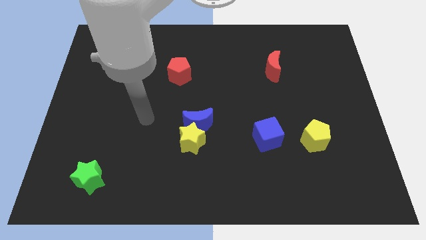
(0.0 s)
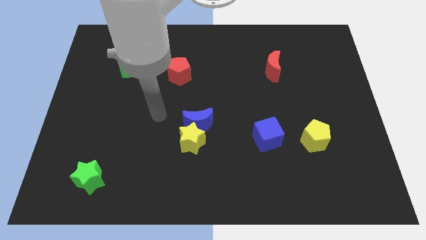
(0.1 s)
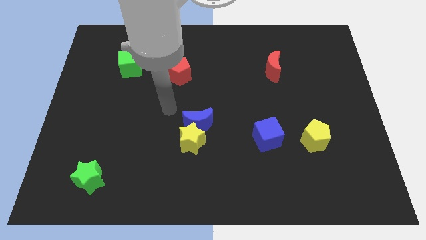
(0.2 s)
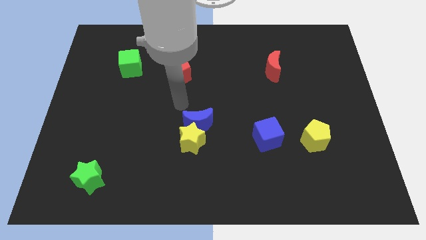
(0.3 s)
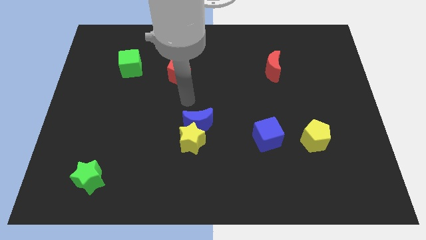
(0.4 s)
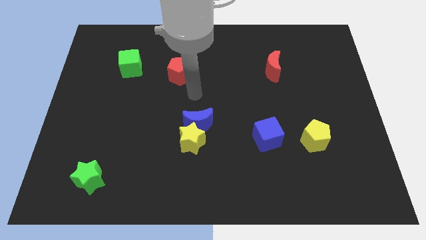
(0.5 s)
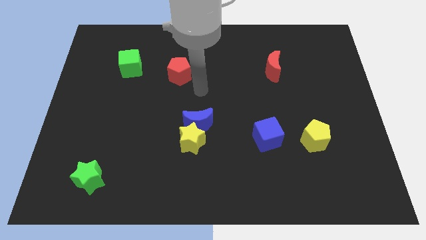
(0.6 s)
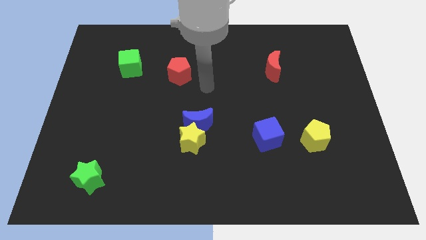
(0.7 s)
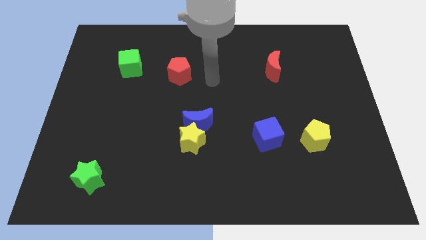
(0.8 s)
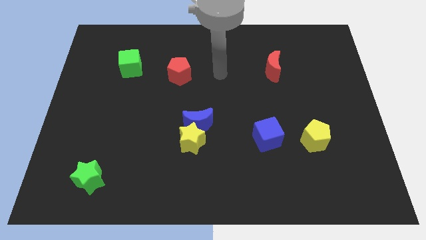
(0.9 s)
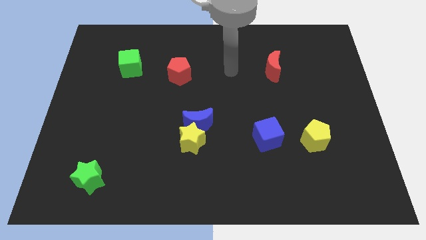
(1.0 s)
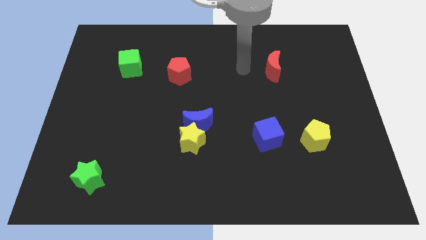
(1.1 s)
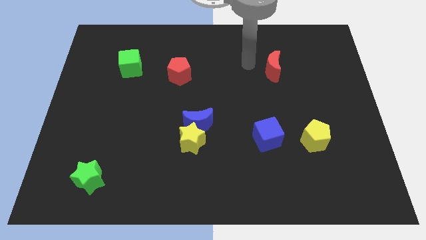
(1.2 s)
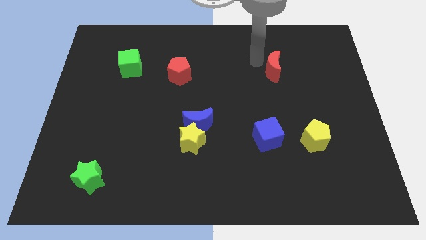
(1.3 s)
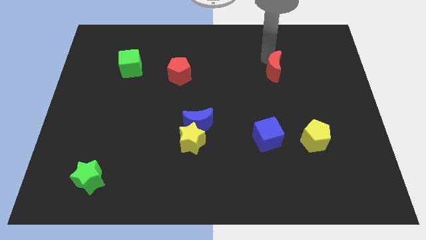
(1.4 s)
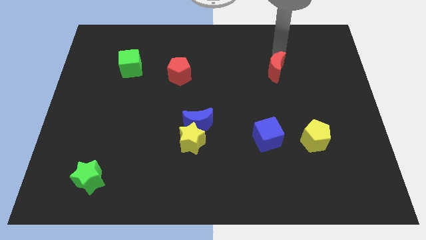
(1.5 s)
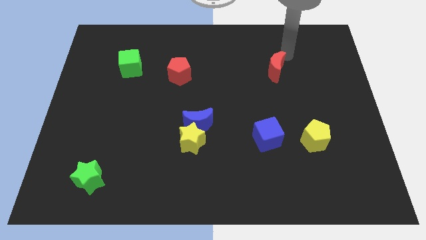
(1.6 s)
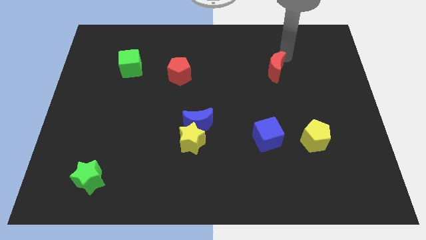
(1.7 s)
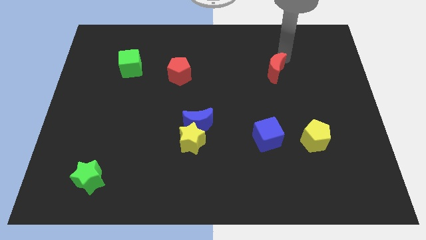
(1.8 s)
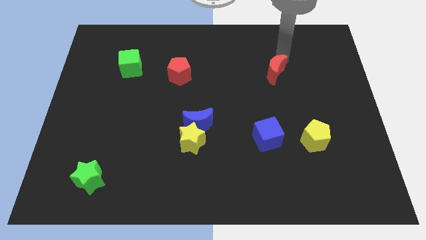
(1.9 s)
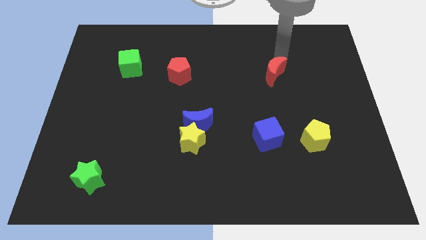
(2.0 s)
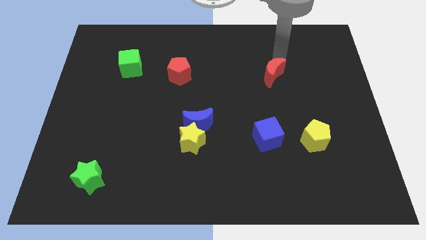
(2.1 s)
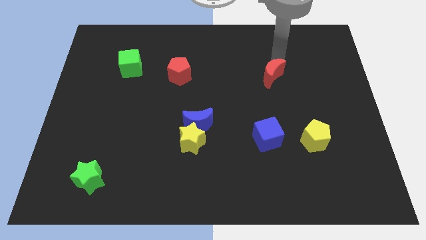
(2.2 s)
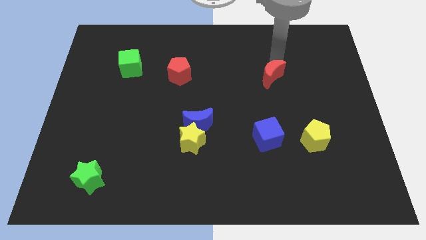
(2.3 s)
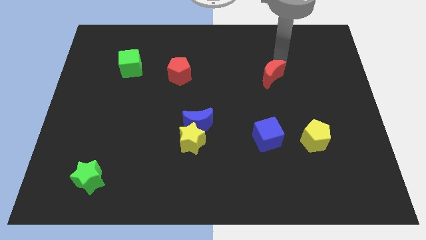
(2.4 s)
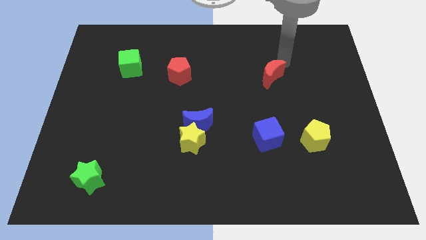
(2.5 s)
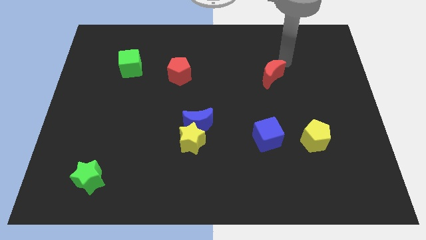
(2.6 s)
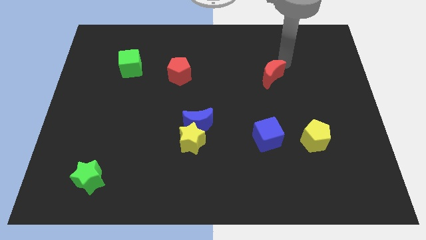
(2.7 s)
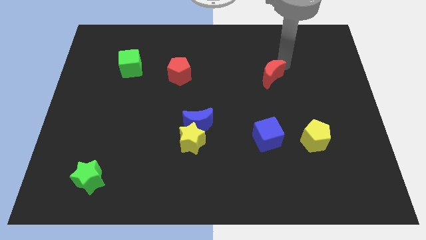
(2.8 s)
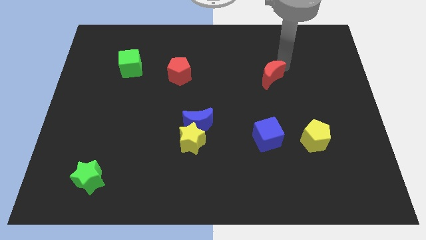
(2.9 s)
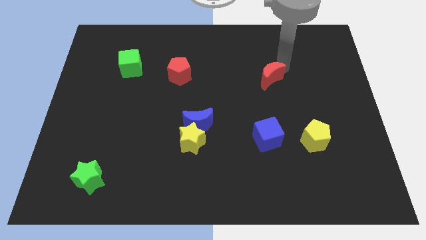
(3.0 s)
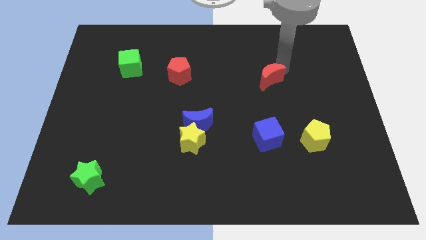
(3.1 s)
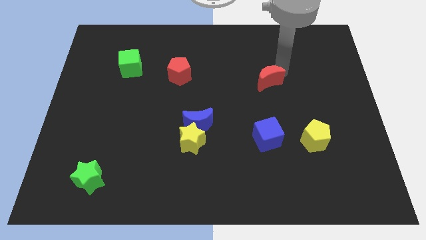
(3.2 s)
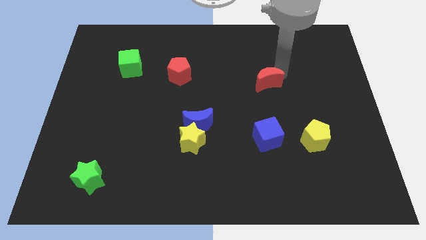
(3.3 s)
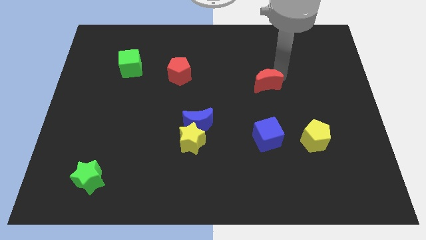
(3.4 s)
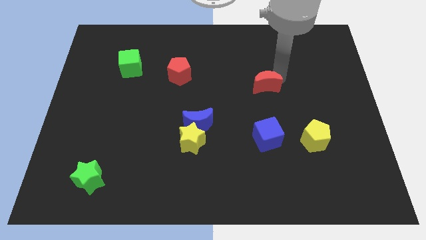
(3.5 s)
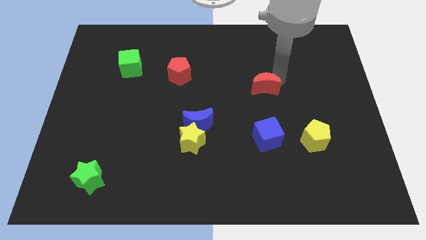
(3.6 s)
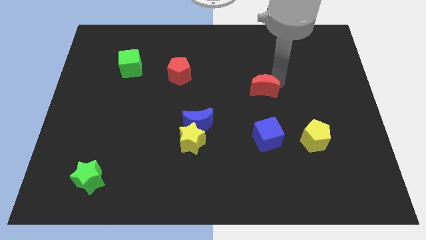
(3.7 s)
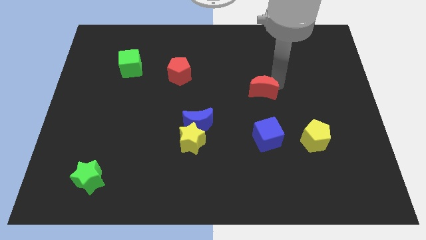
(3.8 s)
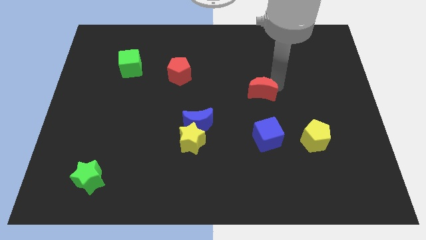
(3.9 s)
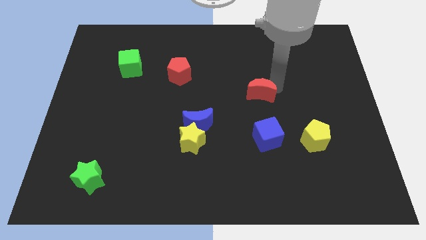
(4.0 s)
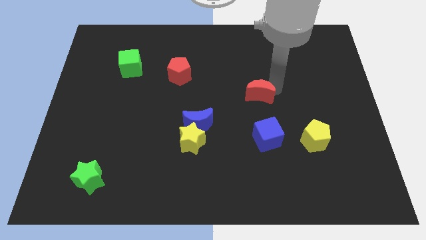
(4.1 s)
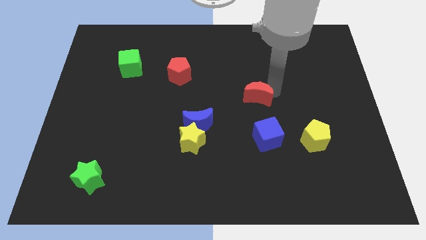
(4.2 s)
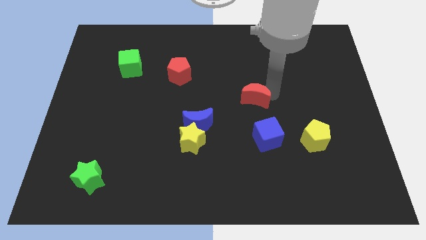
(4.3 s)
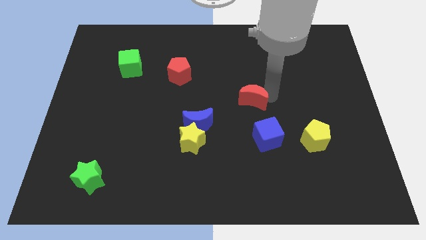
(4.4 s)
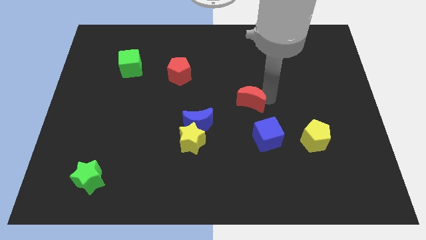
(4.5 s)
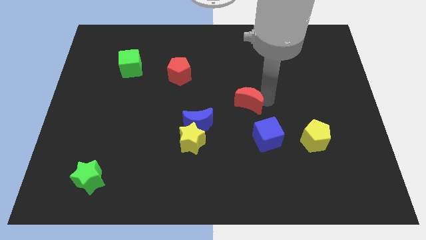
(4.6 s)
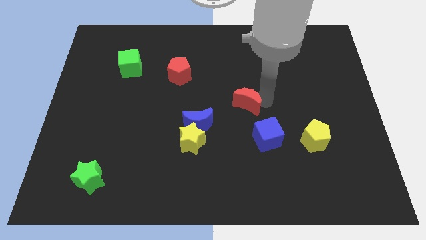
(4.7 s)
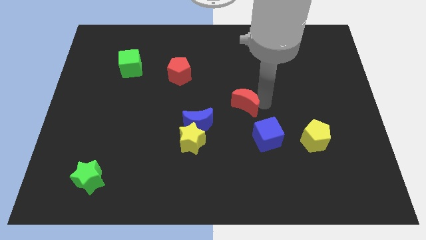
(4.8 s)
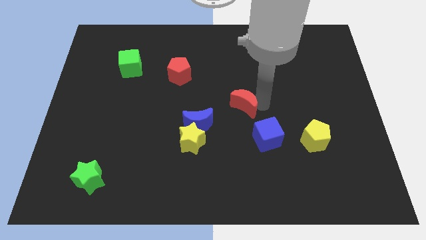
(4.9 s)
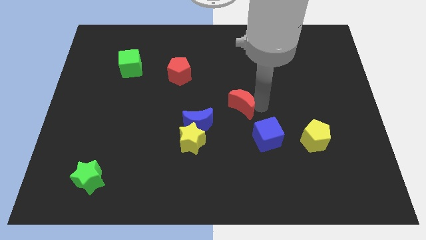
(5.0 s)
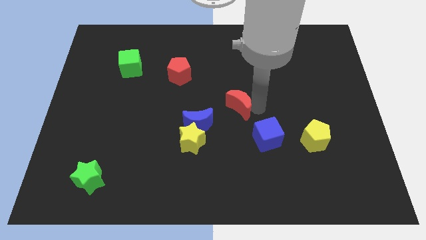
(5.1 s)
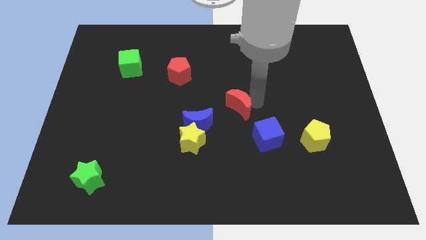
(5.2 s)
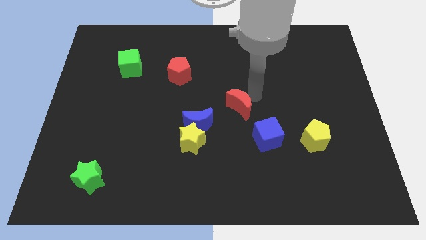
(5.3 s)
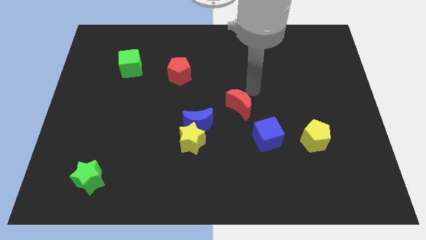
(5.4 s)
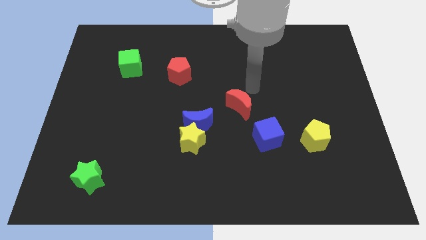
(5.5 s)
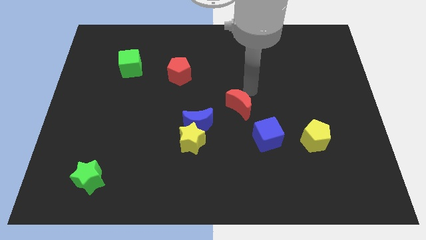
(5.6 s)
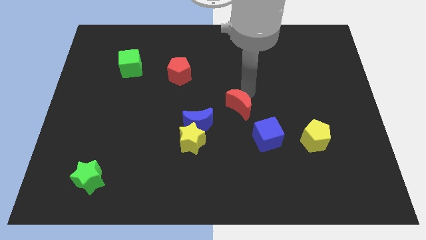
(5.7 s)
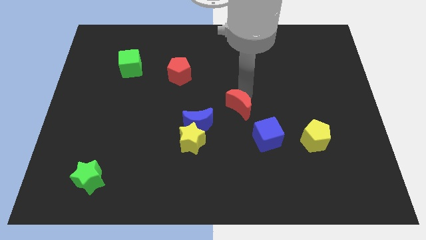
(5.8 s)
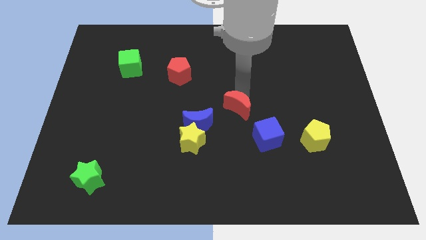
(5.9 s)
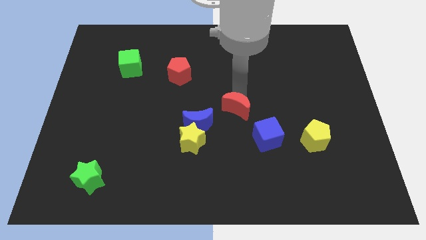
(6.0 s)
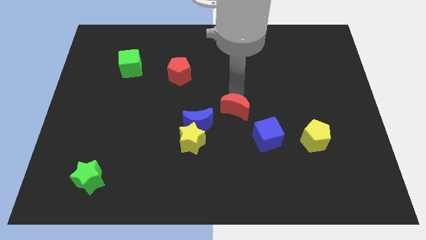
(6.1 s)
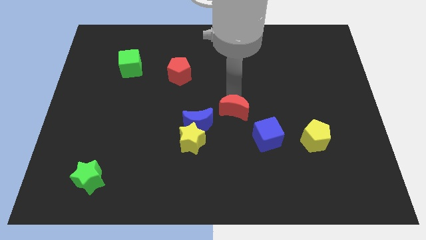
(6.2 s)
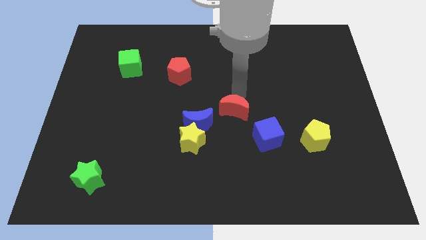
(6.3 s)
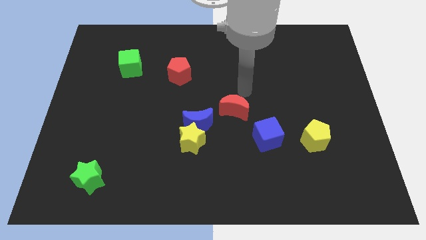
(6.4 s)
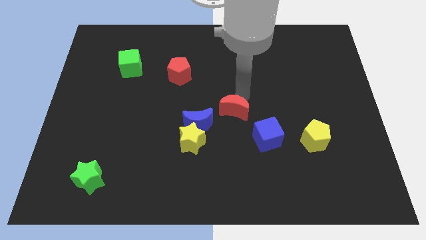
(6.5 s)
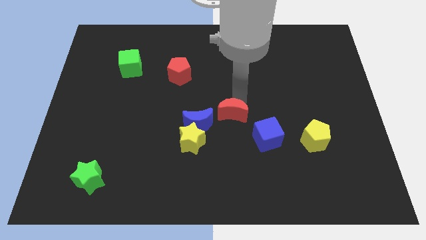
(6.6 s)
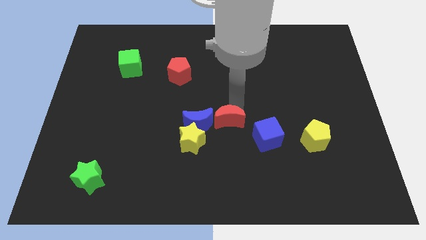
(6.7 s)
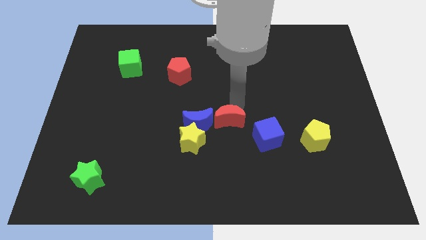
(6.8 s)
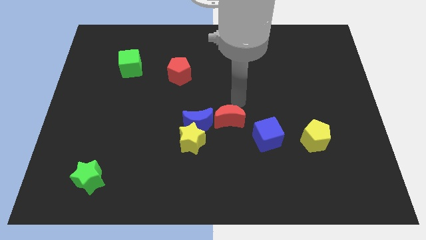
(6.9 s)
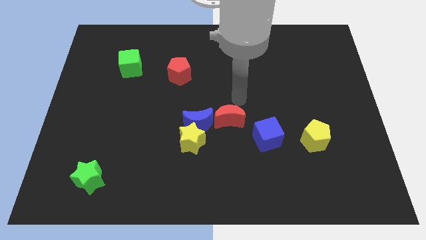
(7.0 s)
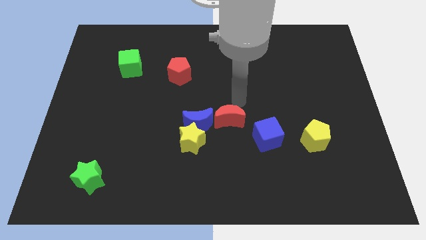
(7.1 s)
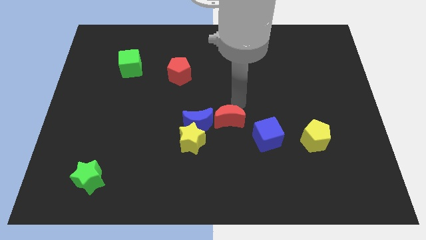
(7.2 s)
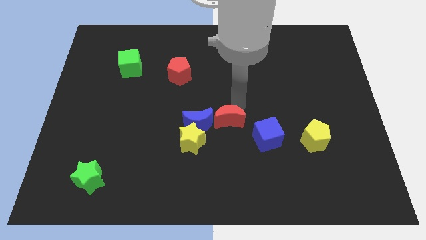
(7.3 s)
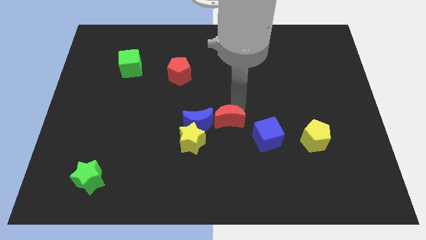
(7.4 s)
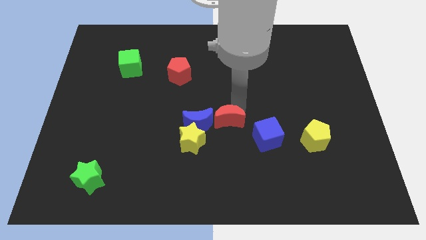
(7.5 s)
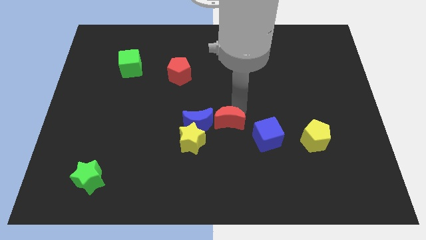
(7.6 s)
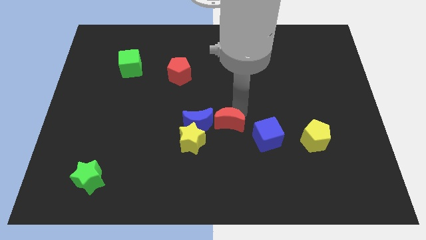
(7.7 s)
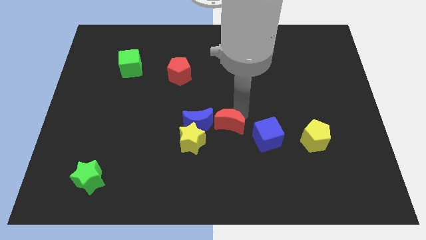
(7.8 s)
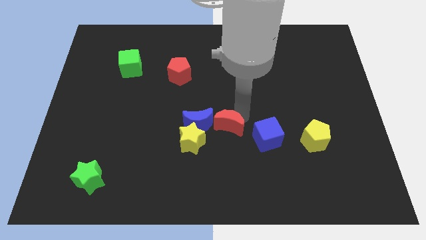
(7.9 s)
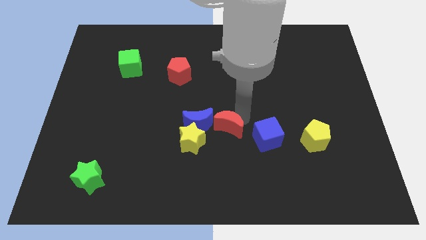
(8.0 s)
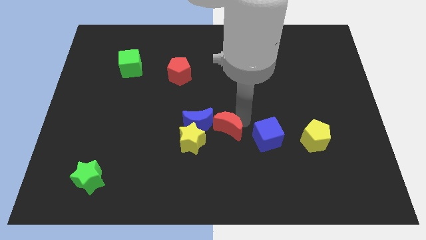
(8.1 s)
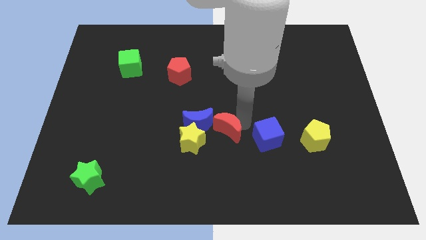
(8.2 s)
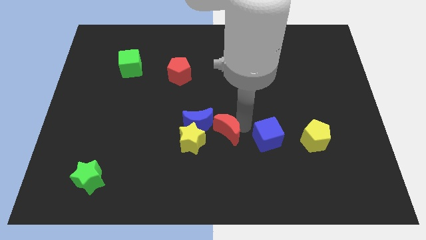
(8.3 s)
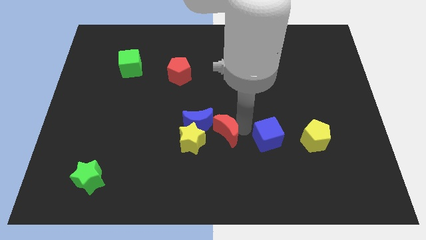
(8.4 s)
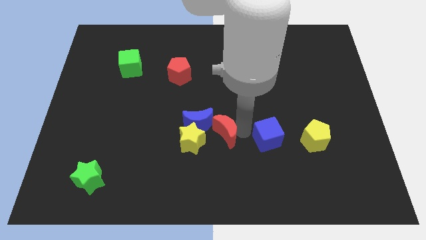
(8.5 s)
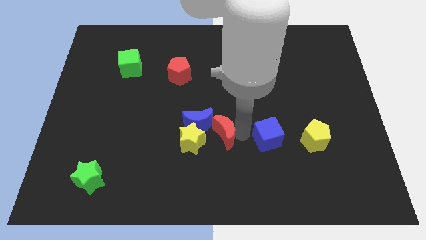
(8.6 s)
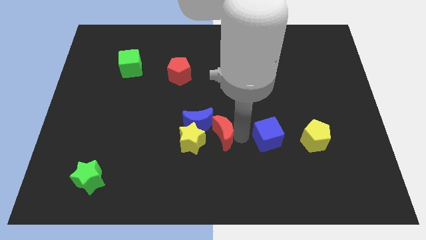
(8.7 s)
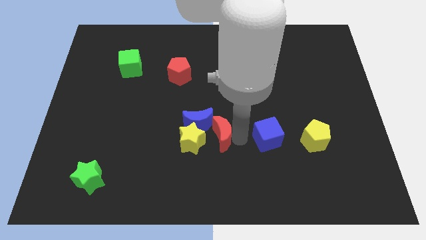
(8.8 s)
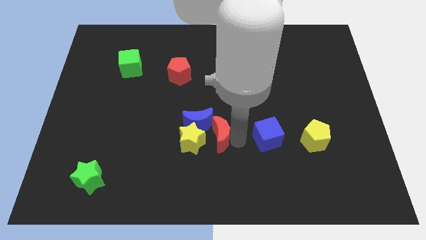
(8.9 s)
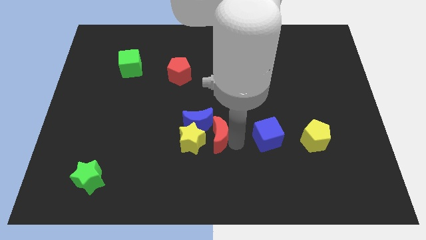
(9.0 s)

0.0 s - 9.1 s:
put the red moon to the yellow star
